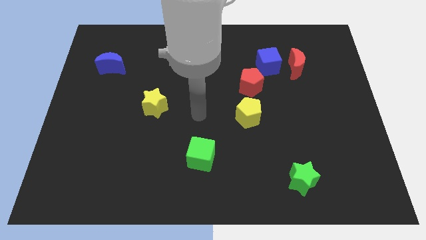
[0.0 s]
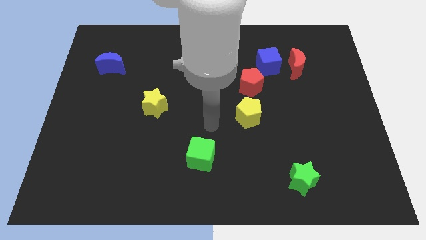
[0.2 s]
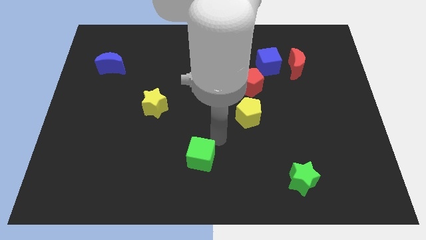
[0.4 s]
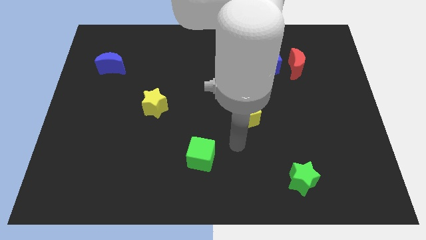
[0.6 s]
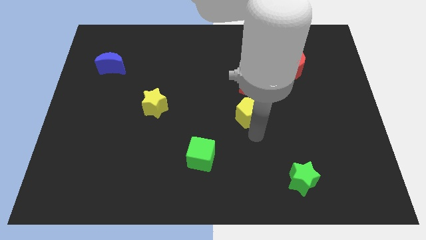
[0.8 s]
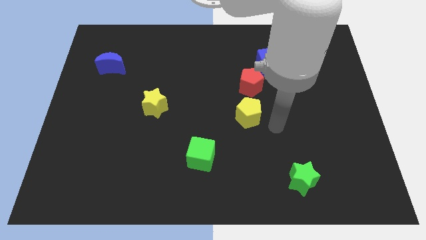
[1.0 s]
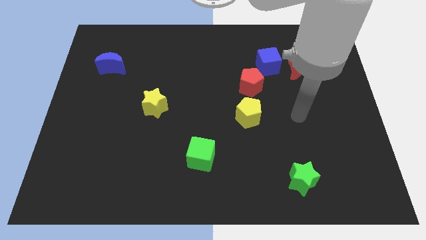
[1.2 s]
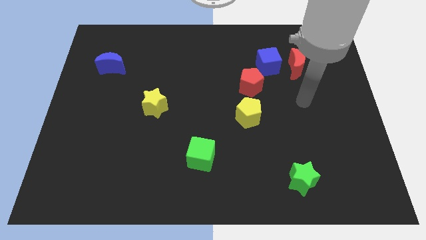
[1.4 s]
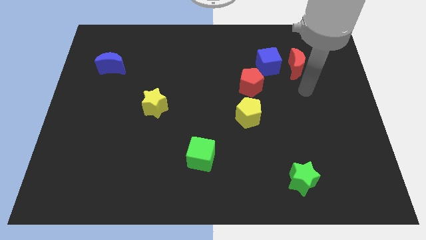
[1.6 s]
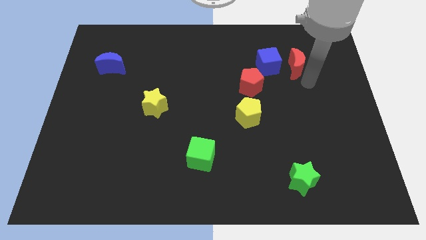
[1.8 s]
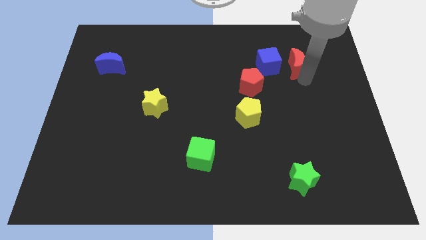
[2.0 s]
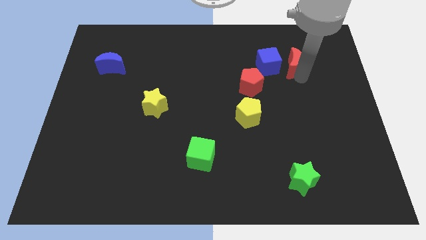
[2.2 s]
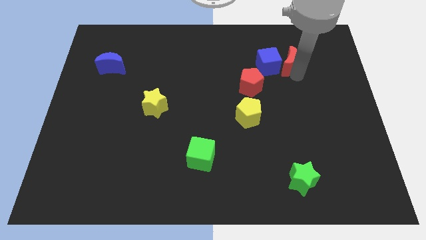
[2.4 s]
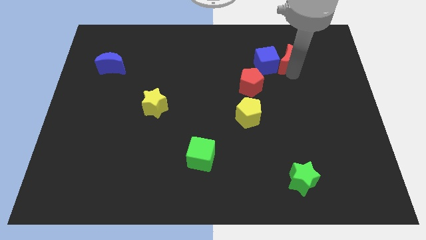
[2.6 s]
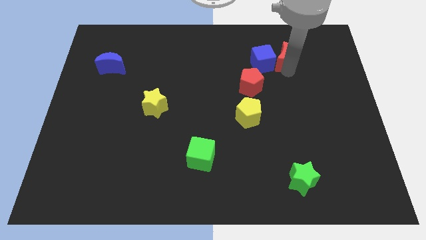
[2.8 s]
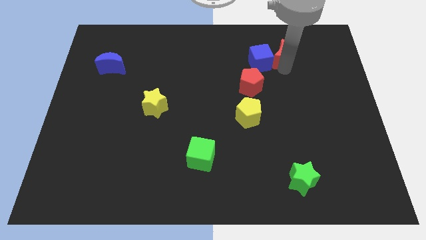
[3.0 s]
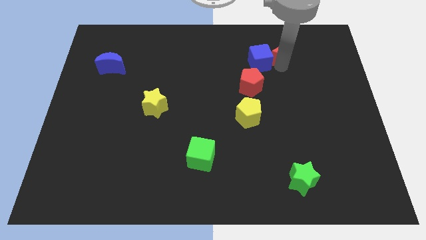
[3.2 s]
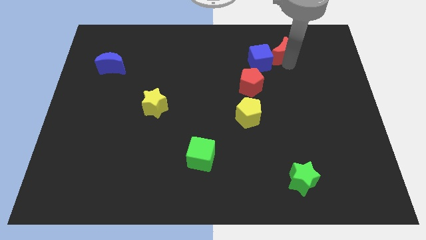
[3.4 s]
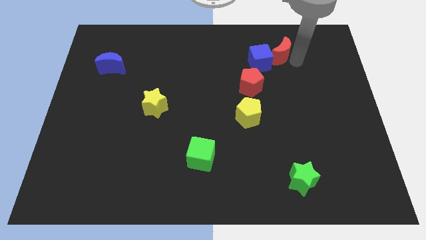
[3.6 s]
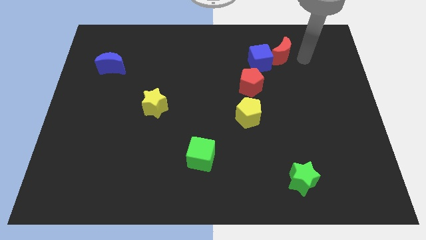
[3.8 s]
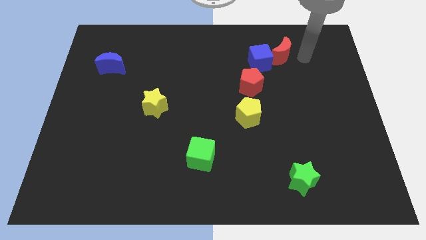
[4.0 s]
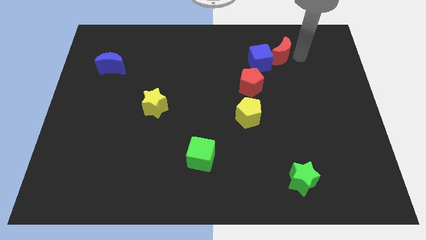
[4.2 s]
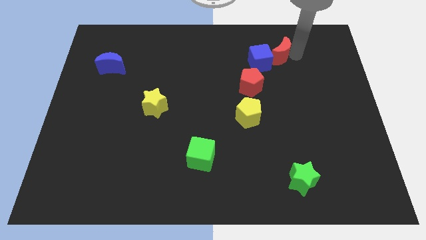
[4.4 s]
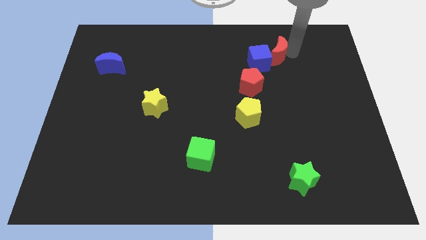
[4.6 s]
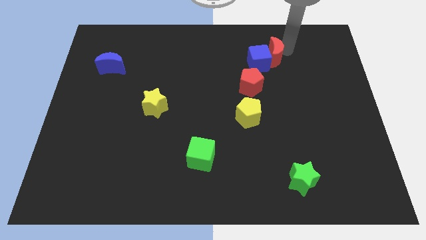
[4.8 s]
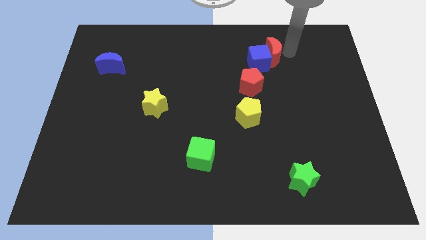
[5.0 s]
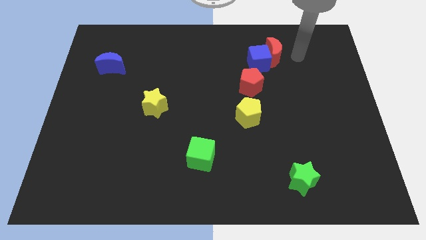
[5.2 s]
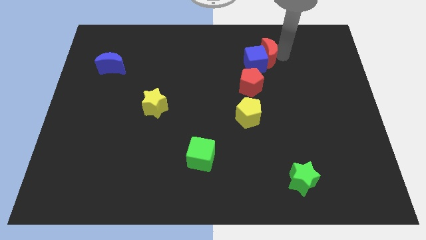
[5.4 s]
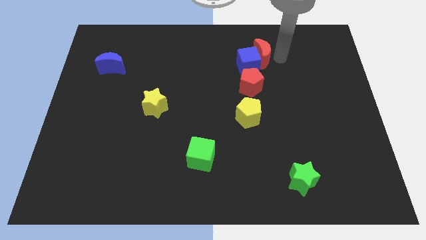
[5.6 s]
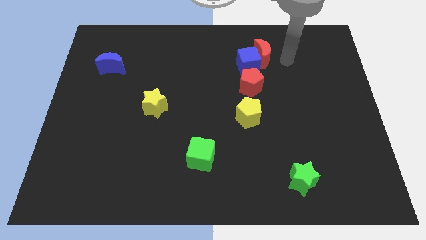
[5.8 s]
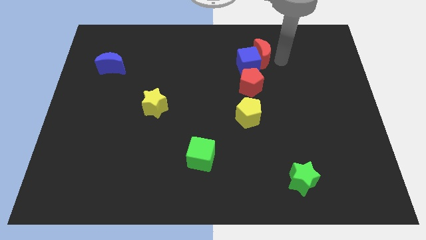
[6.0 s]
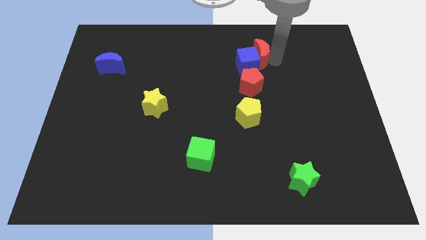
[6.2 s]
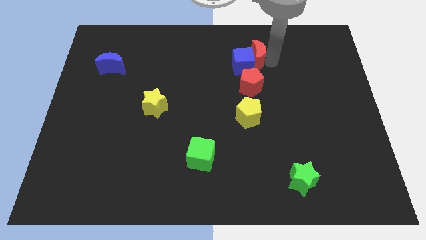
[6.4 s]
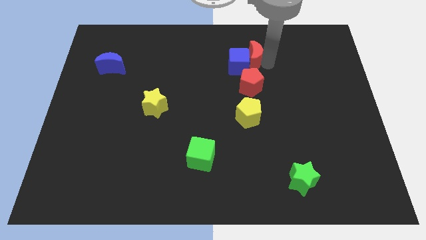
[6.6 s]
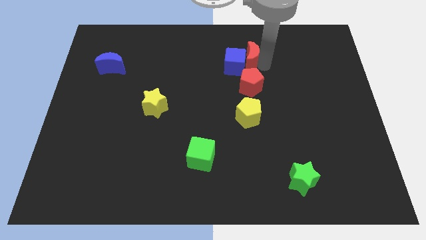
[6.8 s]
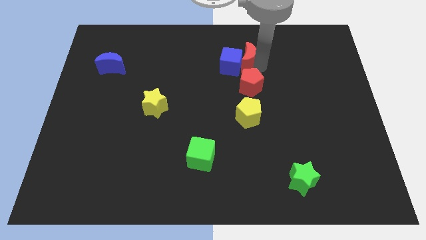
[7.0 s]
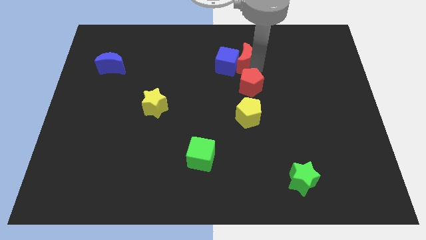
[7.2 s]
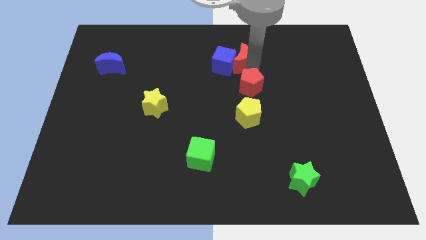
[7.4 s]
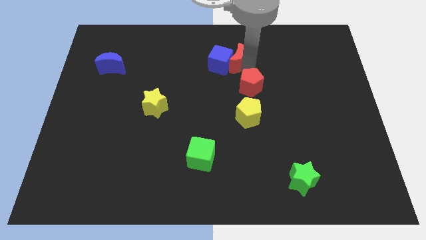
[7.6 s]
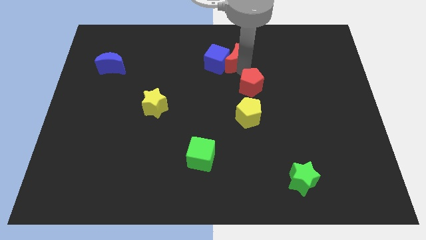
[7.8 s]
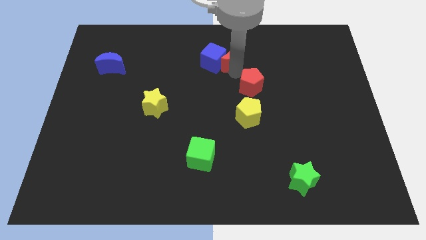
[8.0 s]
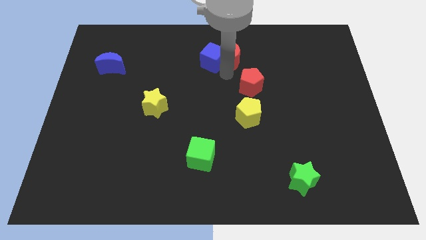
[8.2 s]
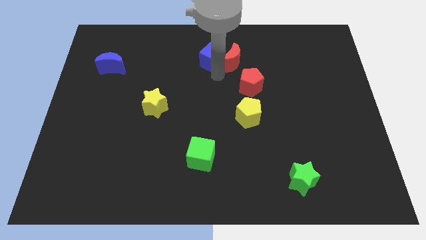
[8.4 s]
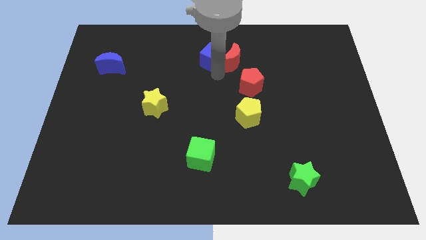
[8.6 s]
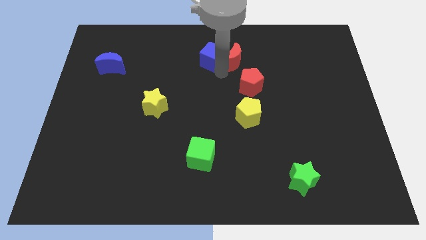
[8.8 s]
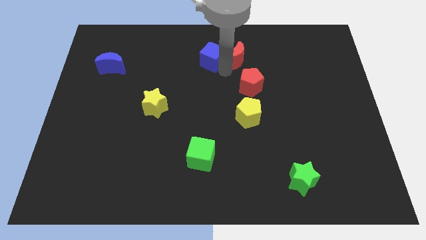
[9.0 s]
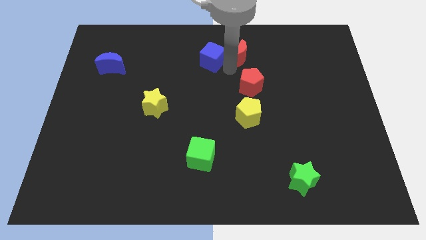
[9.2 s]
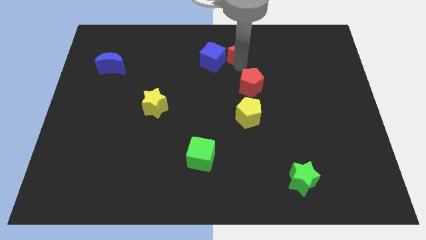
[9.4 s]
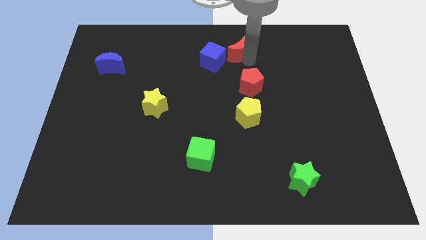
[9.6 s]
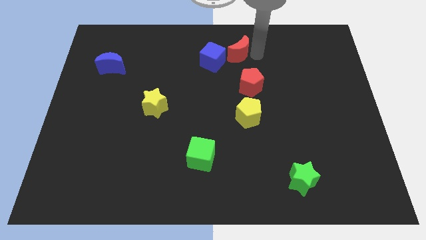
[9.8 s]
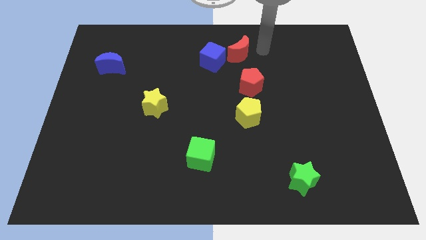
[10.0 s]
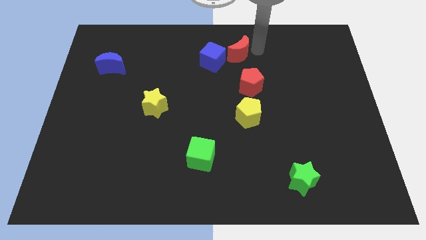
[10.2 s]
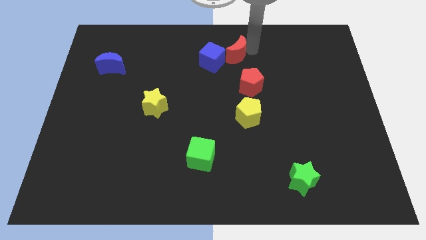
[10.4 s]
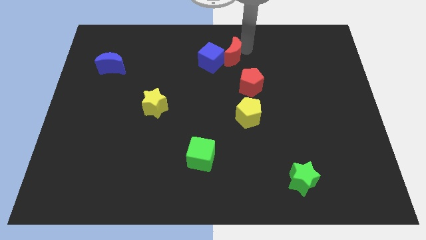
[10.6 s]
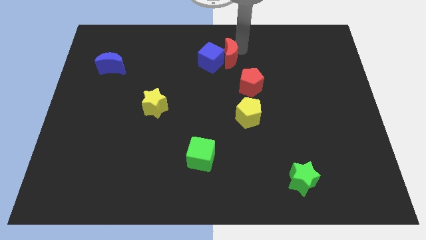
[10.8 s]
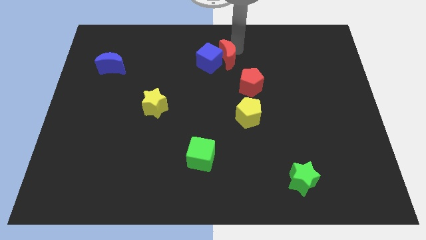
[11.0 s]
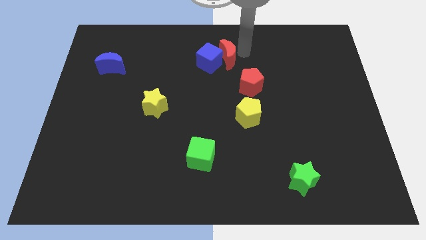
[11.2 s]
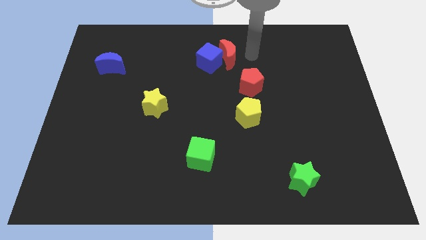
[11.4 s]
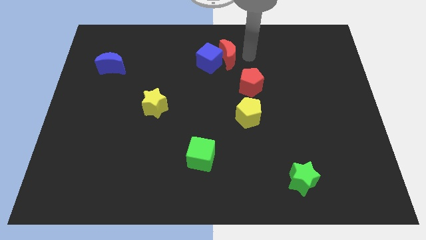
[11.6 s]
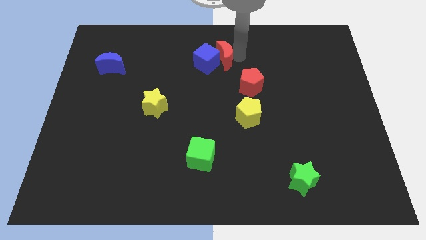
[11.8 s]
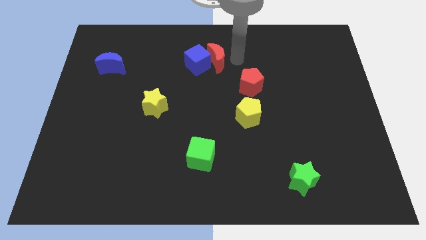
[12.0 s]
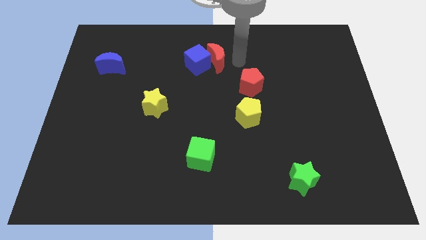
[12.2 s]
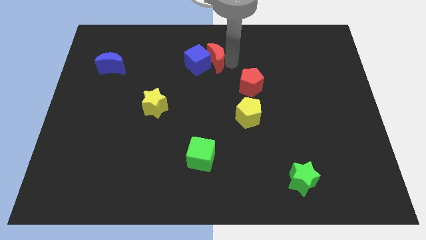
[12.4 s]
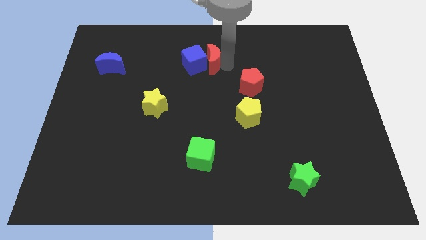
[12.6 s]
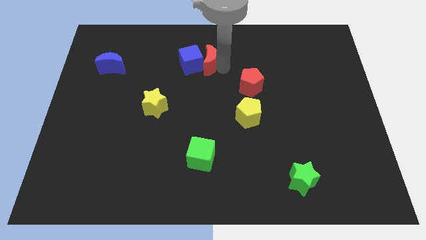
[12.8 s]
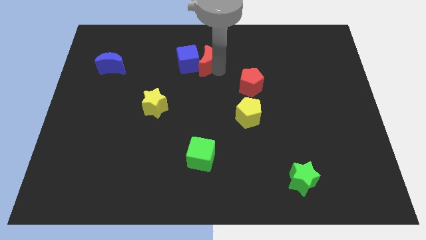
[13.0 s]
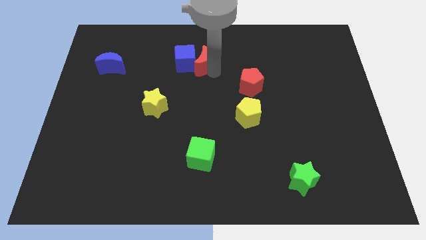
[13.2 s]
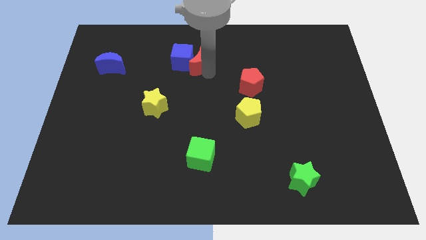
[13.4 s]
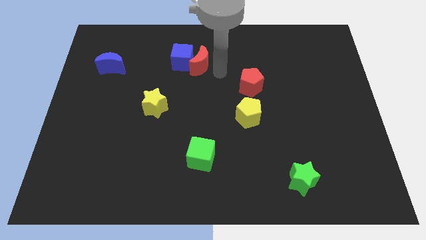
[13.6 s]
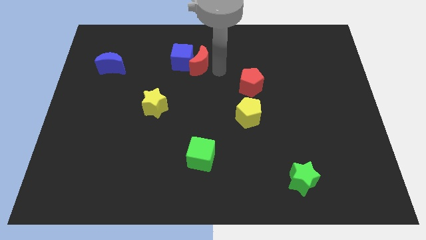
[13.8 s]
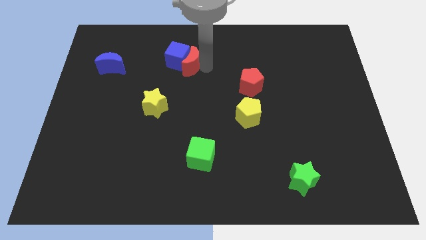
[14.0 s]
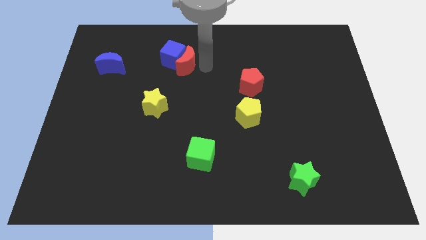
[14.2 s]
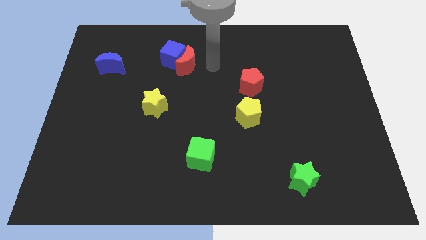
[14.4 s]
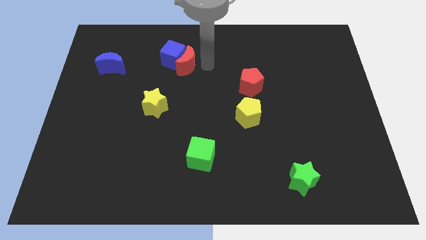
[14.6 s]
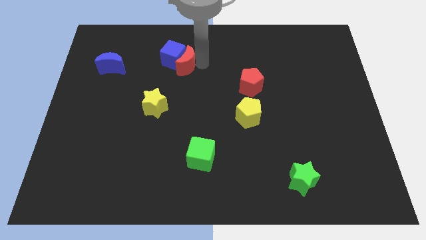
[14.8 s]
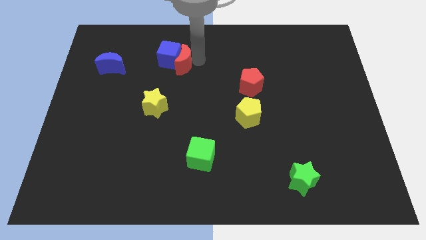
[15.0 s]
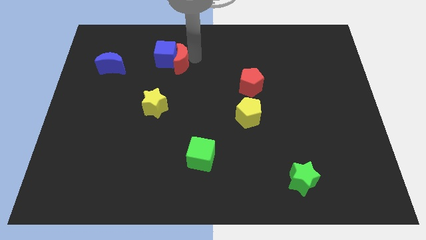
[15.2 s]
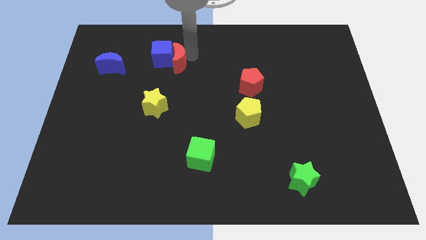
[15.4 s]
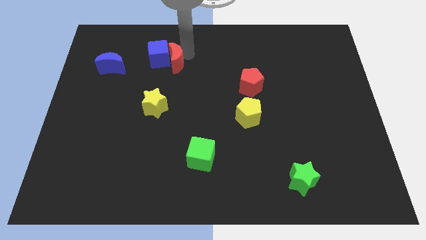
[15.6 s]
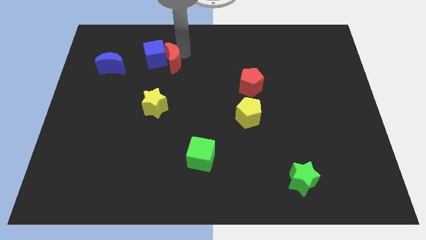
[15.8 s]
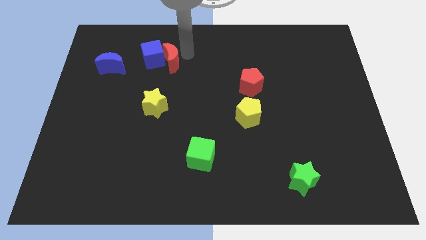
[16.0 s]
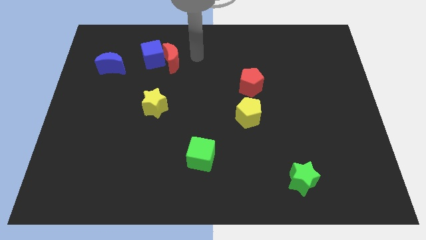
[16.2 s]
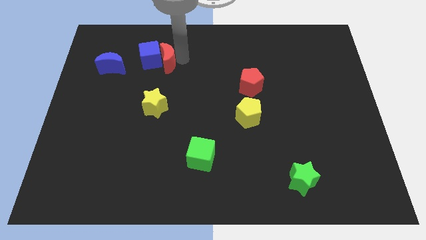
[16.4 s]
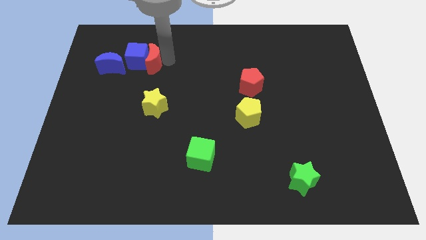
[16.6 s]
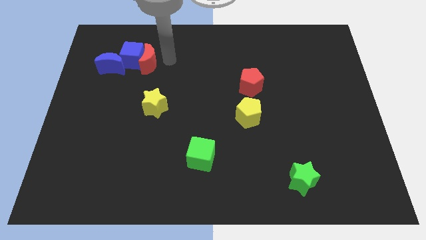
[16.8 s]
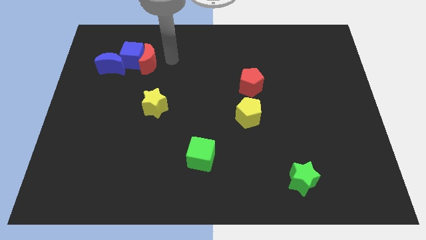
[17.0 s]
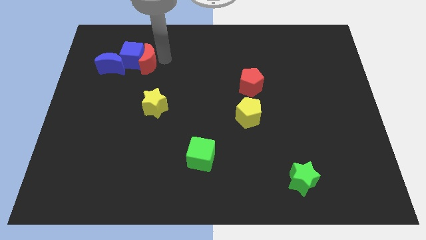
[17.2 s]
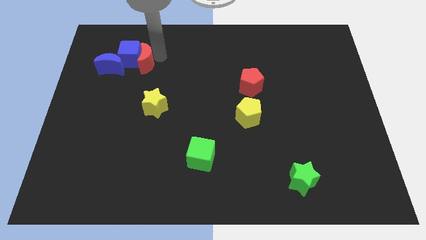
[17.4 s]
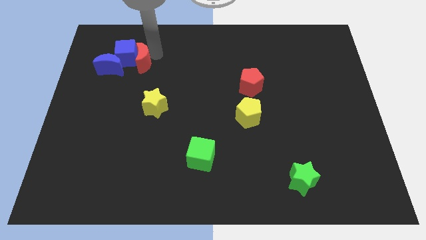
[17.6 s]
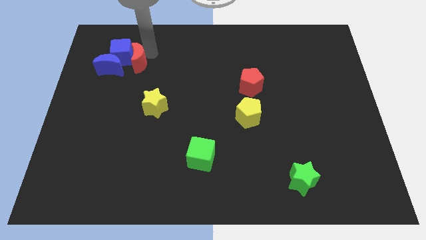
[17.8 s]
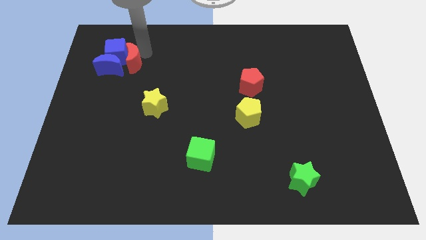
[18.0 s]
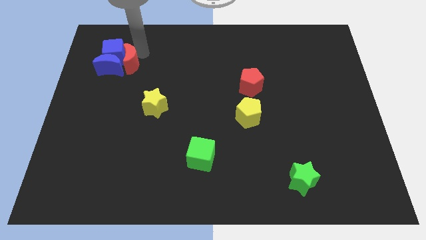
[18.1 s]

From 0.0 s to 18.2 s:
push the red moon to the blue moon
